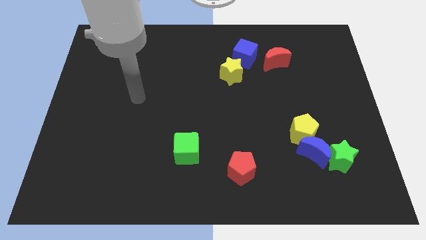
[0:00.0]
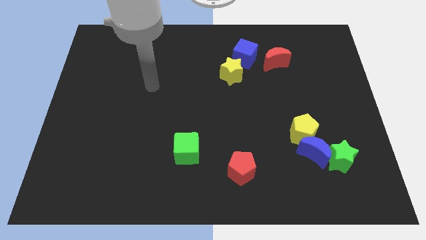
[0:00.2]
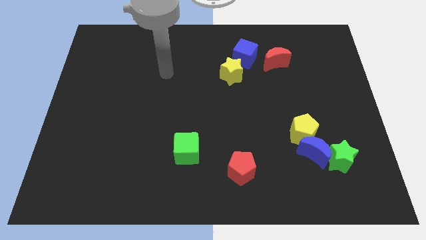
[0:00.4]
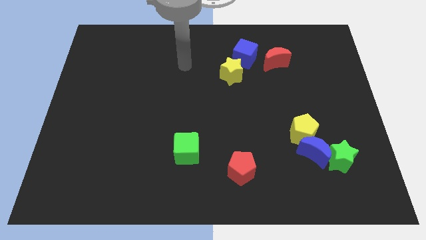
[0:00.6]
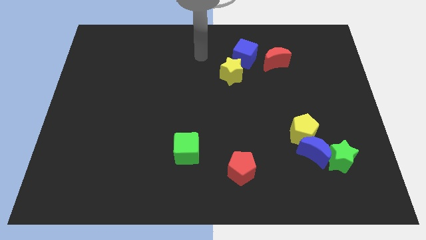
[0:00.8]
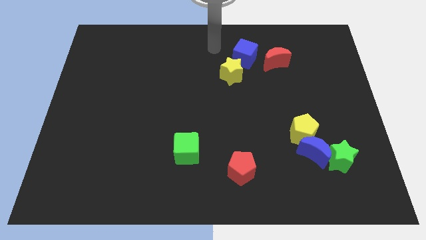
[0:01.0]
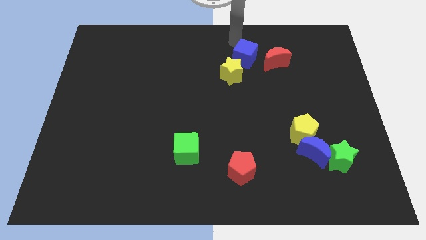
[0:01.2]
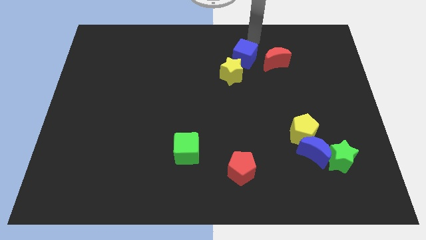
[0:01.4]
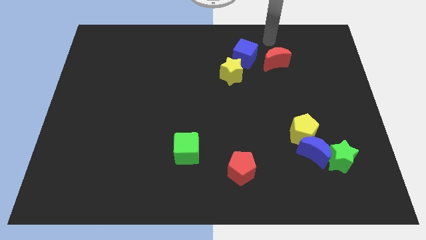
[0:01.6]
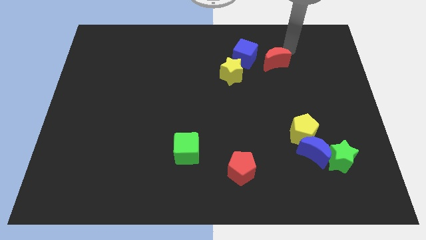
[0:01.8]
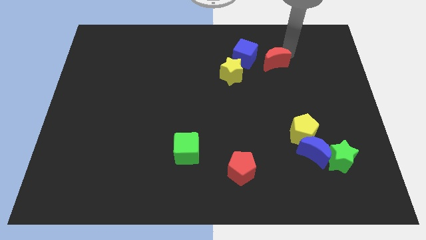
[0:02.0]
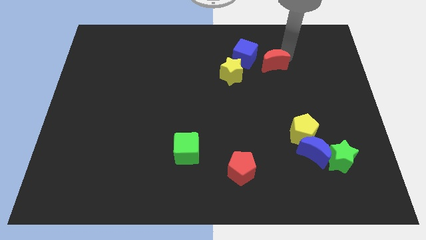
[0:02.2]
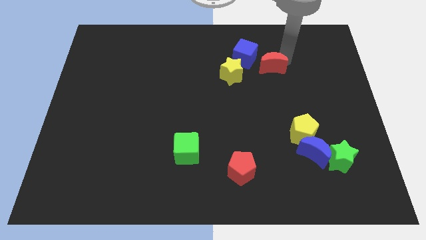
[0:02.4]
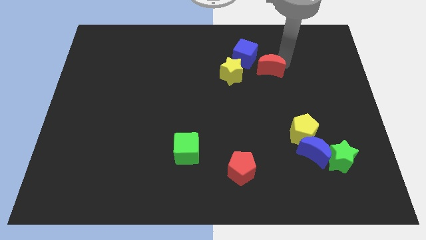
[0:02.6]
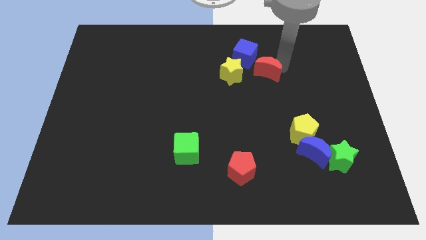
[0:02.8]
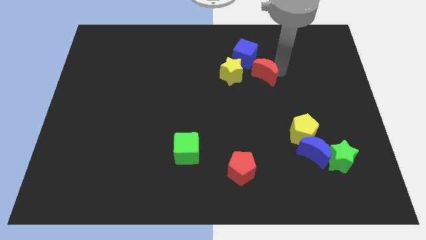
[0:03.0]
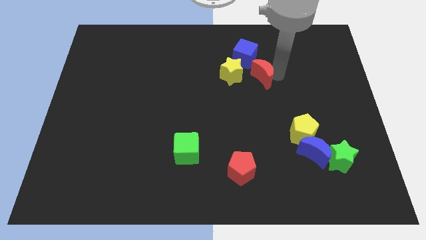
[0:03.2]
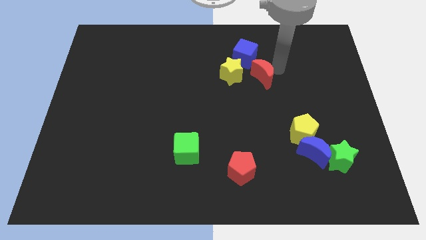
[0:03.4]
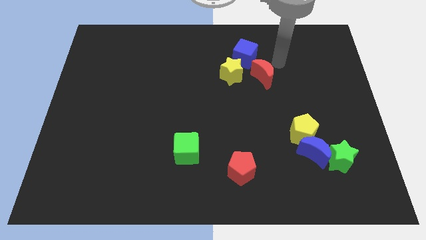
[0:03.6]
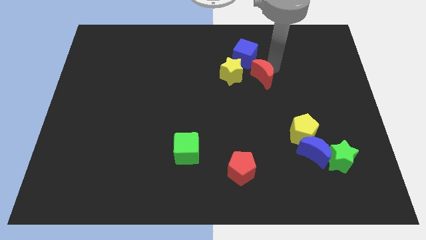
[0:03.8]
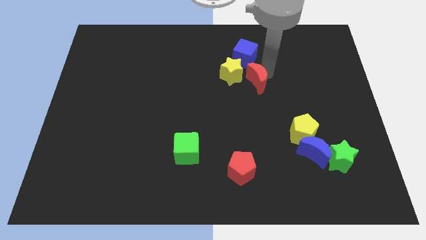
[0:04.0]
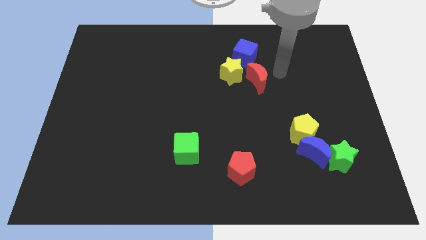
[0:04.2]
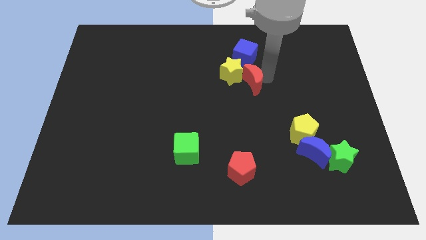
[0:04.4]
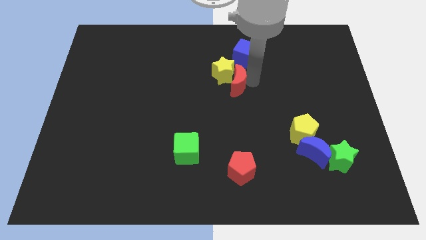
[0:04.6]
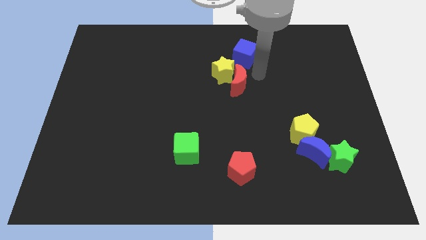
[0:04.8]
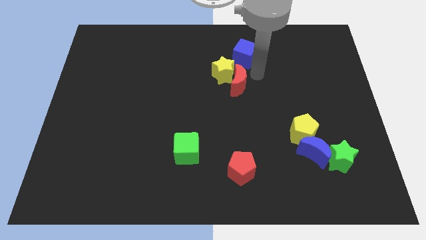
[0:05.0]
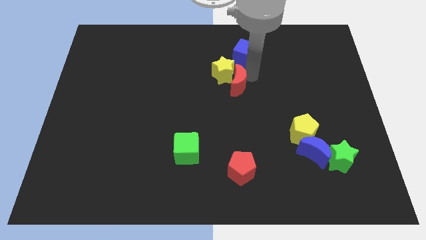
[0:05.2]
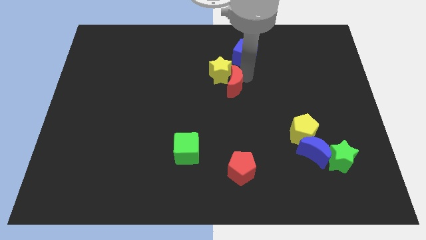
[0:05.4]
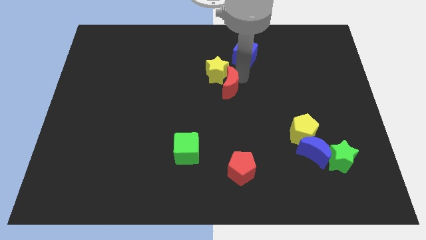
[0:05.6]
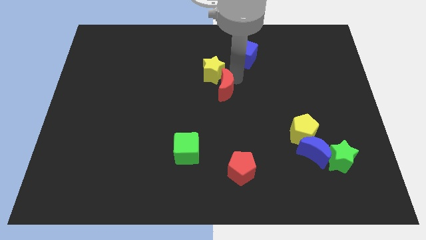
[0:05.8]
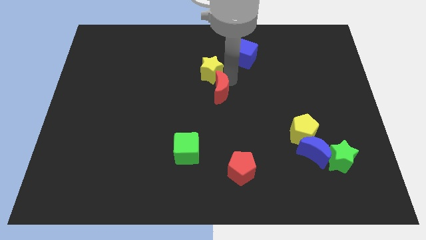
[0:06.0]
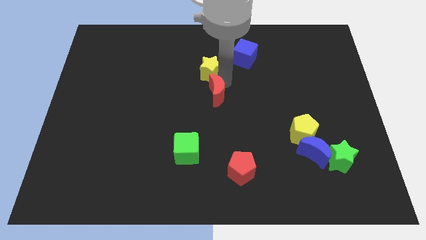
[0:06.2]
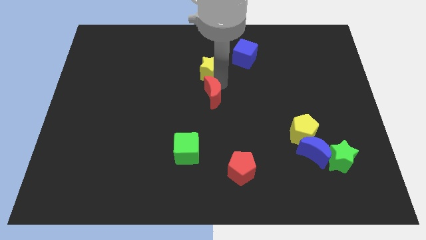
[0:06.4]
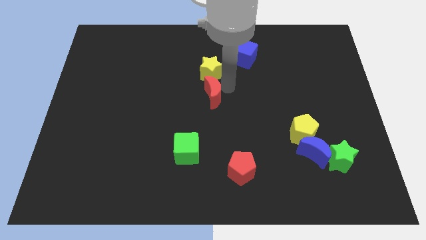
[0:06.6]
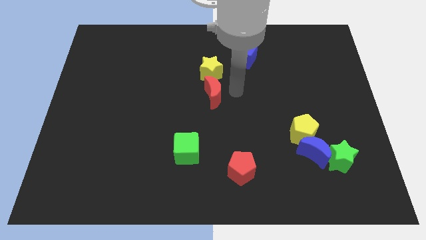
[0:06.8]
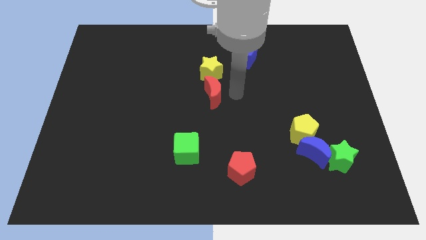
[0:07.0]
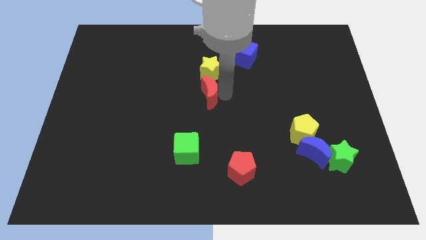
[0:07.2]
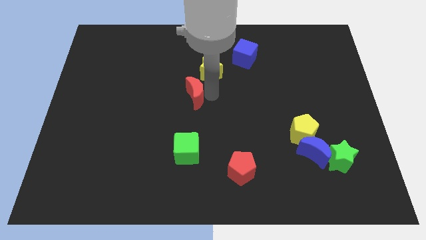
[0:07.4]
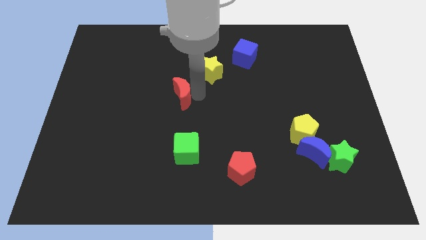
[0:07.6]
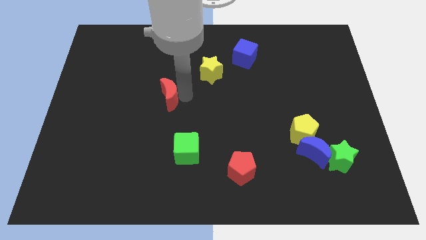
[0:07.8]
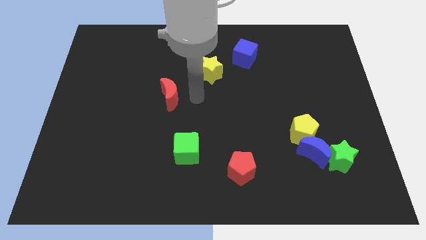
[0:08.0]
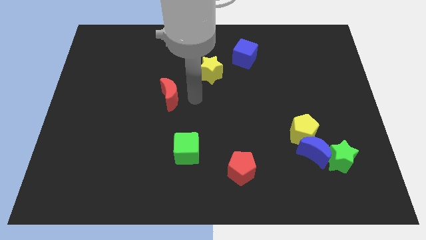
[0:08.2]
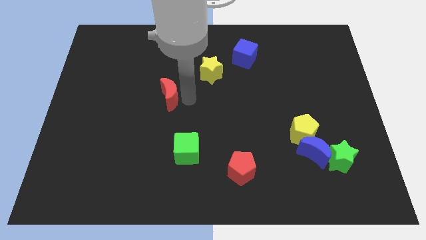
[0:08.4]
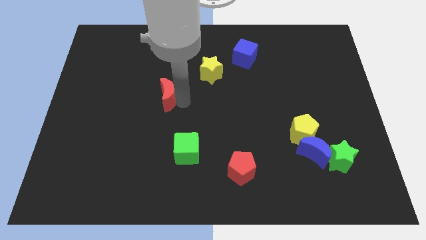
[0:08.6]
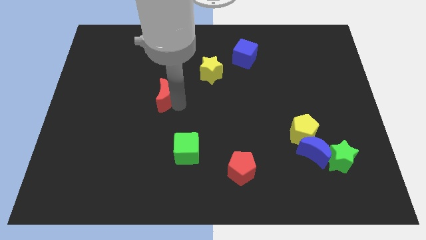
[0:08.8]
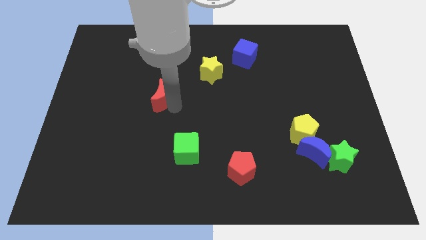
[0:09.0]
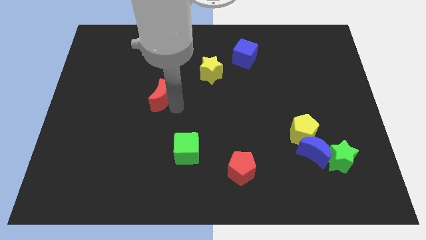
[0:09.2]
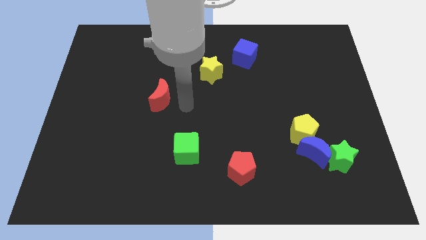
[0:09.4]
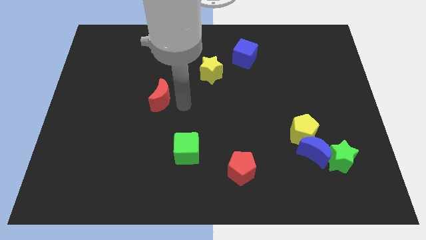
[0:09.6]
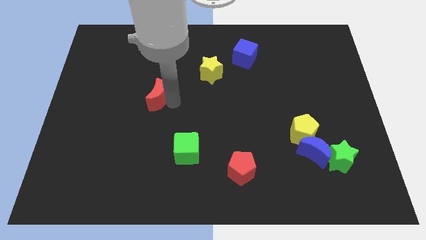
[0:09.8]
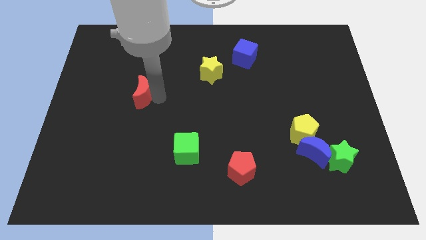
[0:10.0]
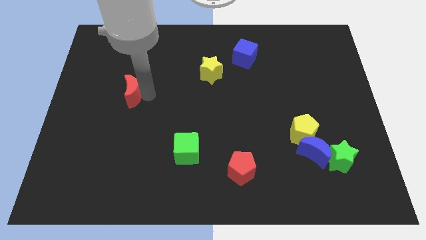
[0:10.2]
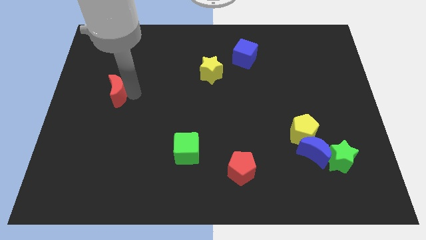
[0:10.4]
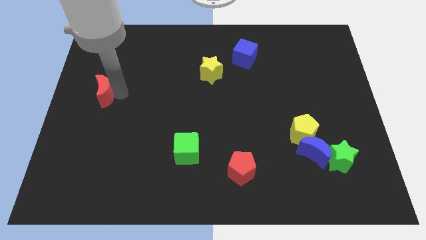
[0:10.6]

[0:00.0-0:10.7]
put the red moon to the center left

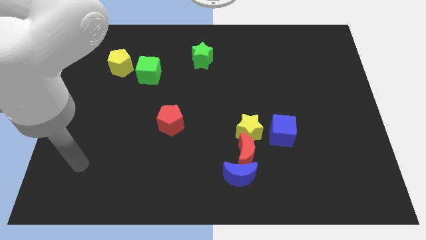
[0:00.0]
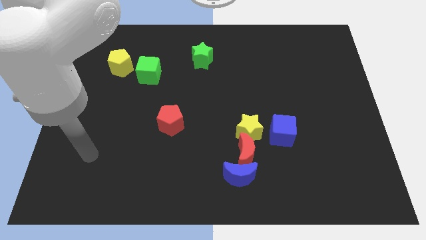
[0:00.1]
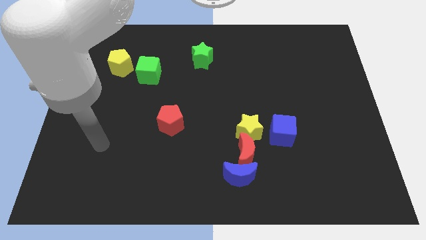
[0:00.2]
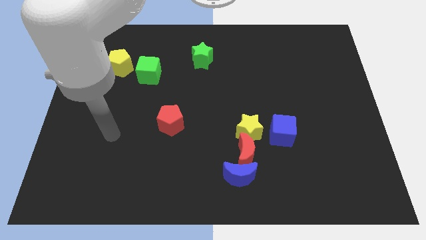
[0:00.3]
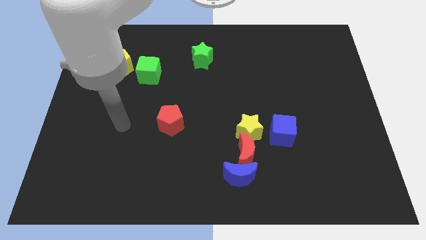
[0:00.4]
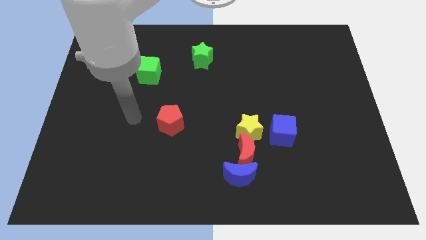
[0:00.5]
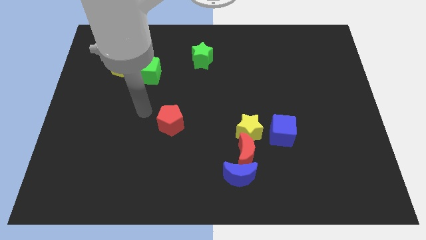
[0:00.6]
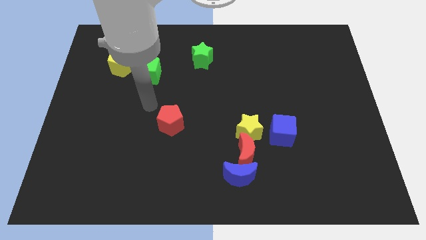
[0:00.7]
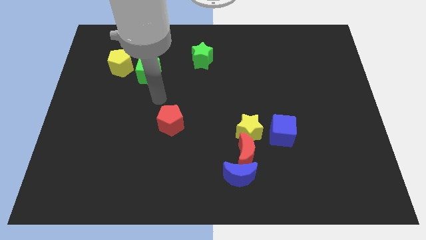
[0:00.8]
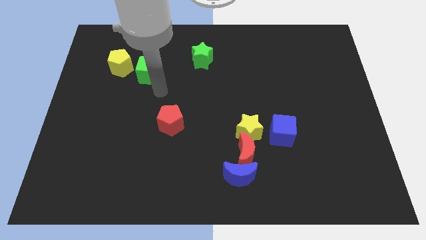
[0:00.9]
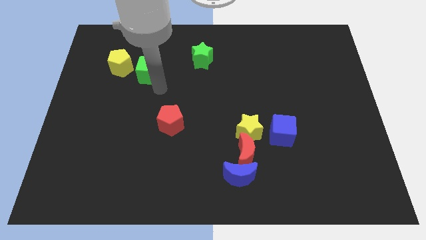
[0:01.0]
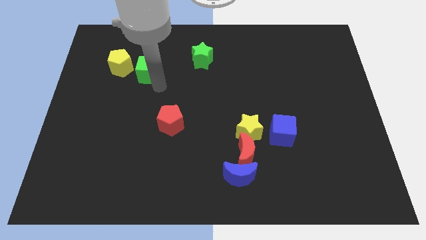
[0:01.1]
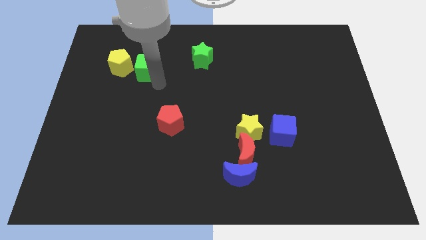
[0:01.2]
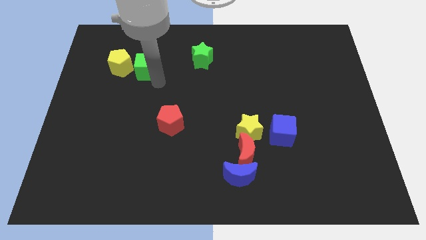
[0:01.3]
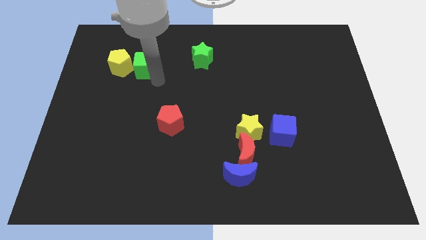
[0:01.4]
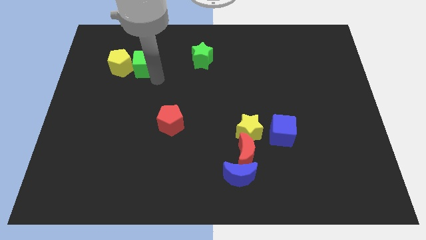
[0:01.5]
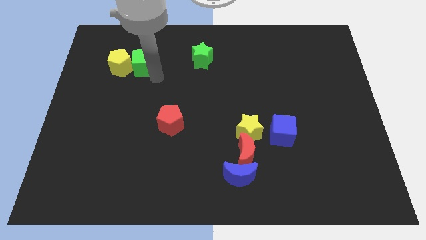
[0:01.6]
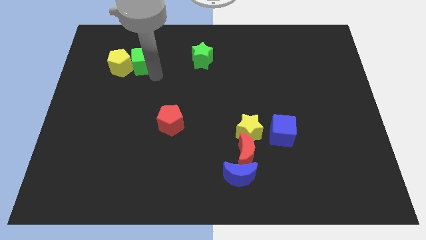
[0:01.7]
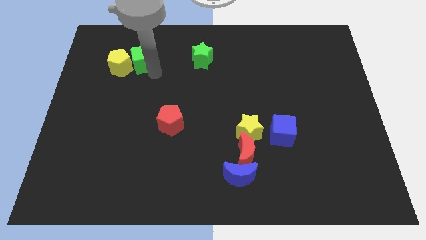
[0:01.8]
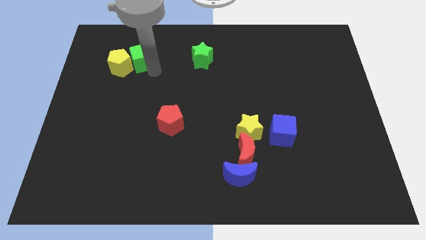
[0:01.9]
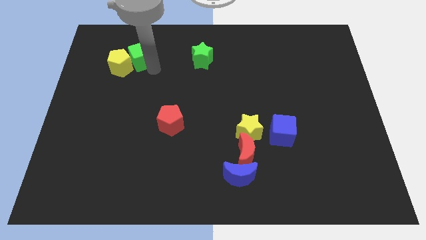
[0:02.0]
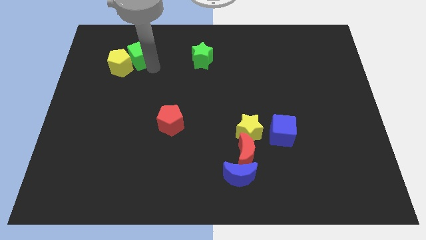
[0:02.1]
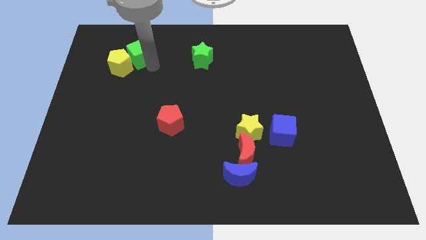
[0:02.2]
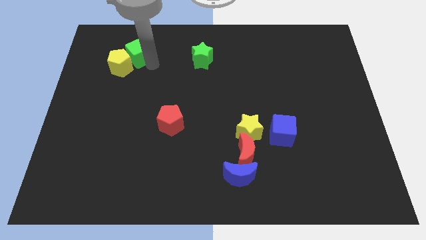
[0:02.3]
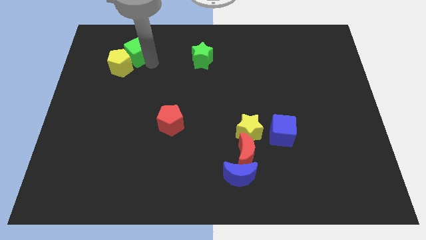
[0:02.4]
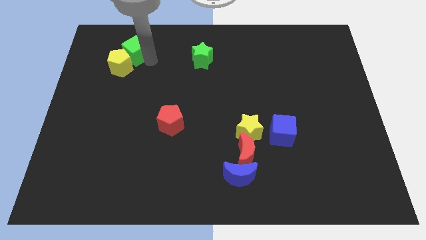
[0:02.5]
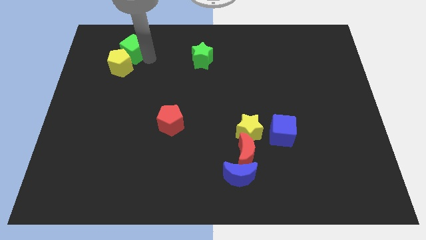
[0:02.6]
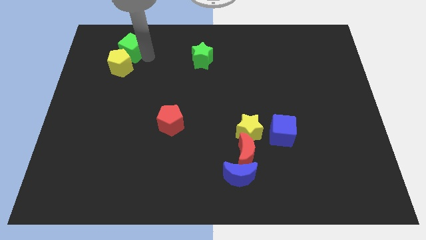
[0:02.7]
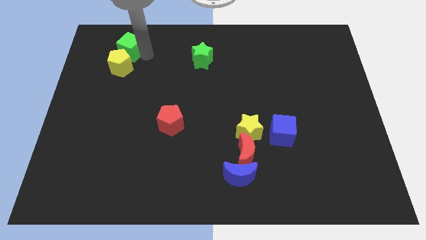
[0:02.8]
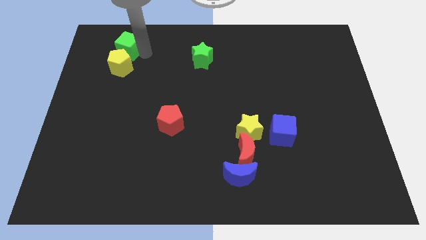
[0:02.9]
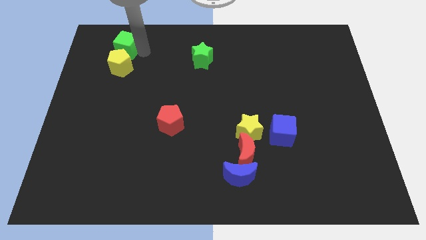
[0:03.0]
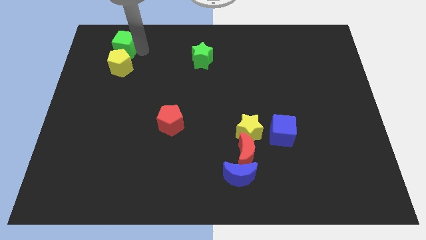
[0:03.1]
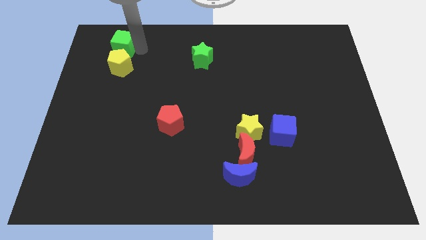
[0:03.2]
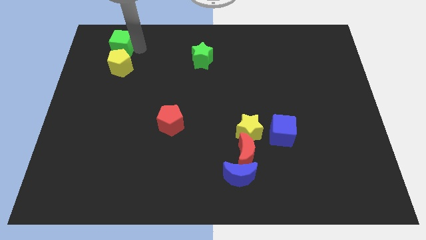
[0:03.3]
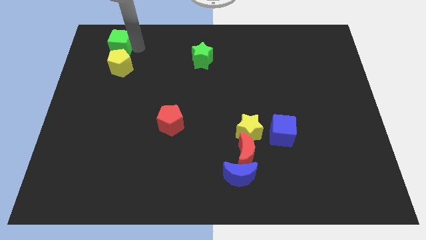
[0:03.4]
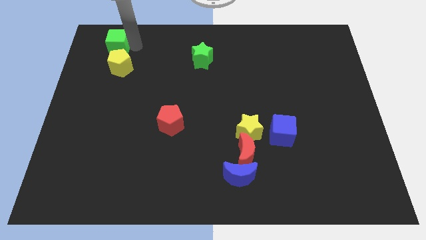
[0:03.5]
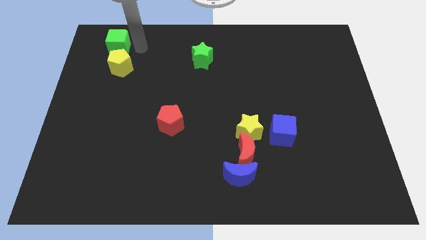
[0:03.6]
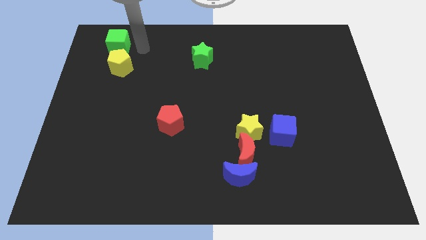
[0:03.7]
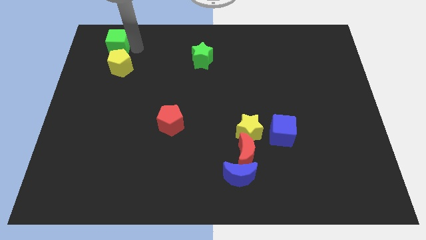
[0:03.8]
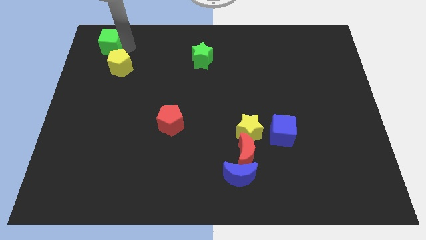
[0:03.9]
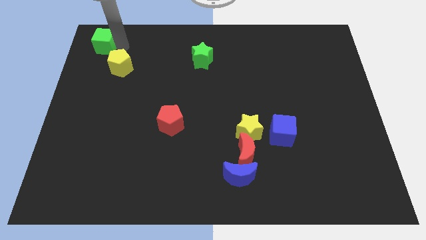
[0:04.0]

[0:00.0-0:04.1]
move the green cube to the top left corner
